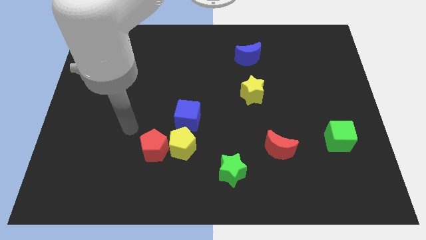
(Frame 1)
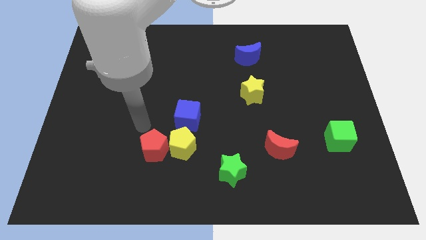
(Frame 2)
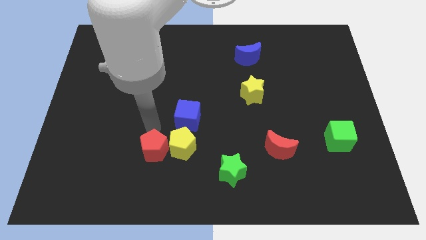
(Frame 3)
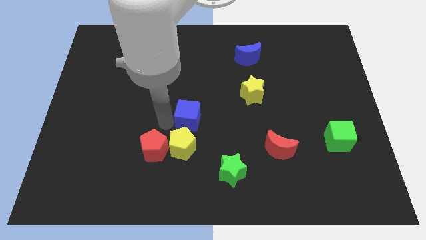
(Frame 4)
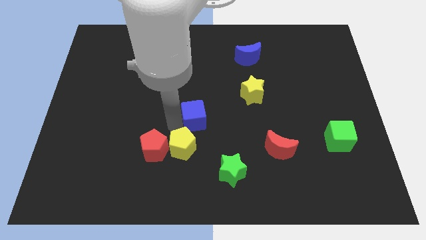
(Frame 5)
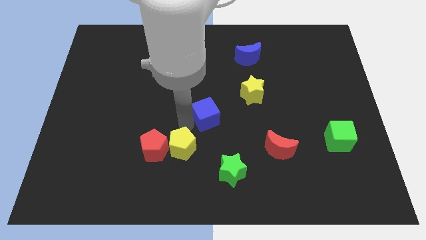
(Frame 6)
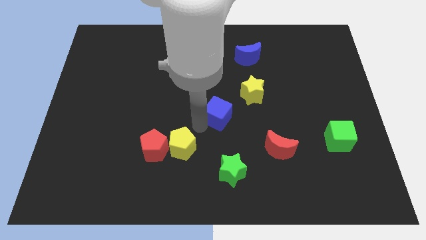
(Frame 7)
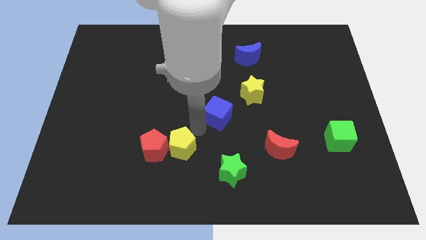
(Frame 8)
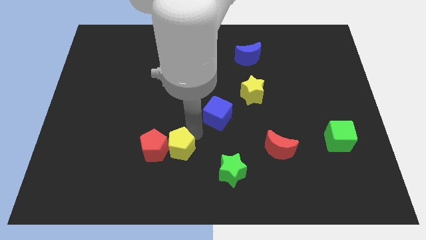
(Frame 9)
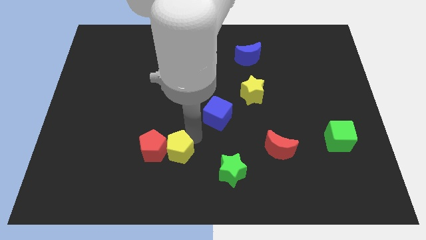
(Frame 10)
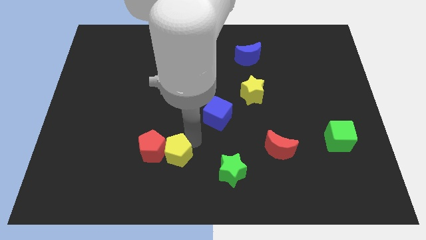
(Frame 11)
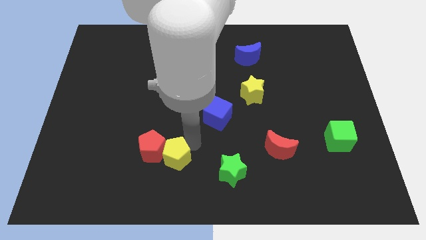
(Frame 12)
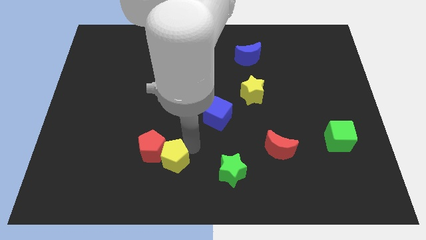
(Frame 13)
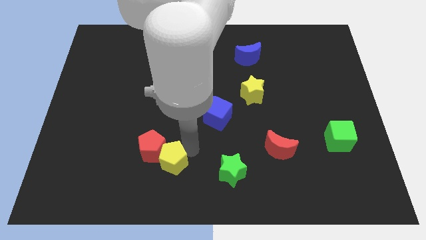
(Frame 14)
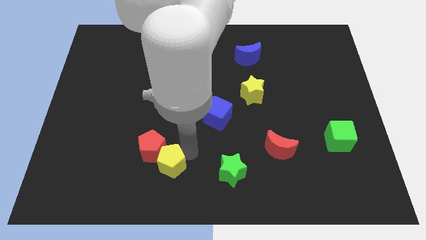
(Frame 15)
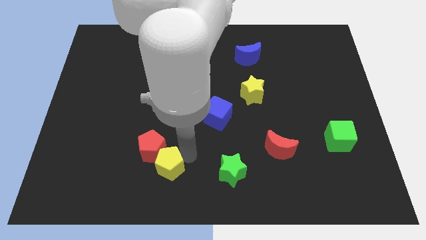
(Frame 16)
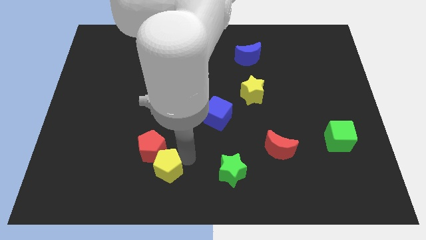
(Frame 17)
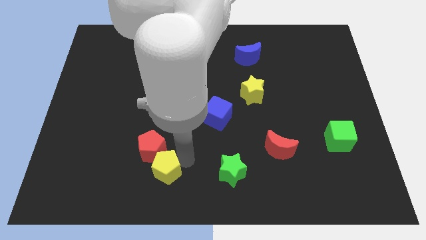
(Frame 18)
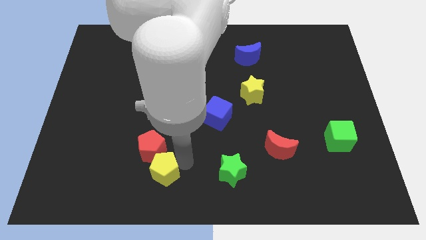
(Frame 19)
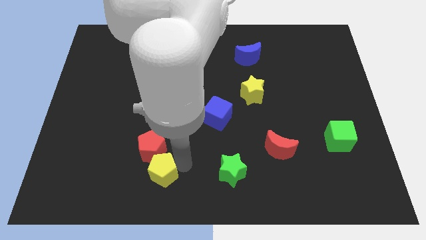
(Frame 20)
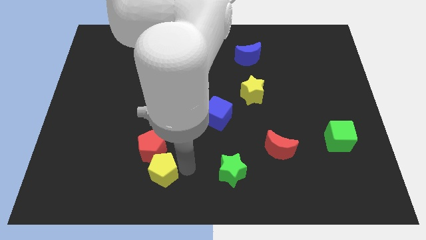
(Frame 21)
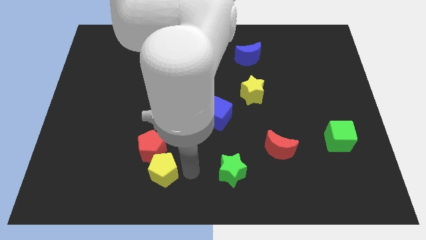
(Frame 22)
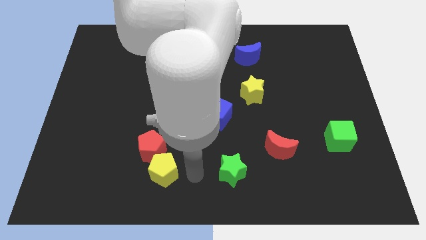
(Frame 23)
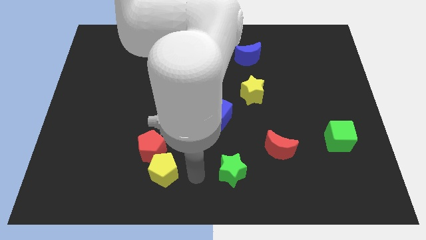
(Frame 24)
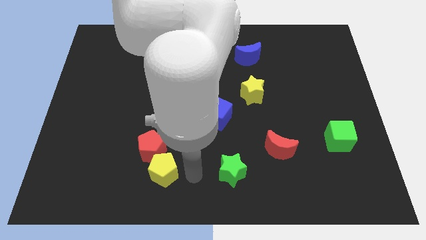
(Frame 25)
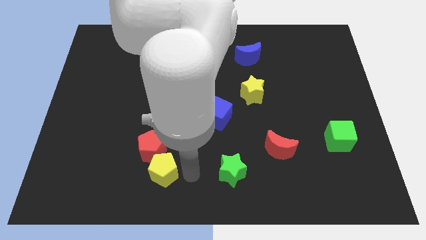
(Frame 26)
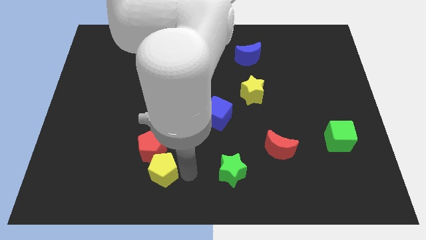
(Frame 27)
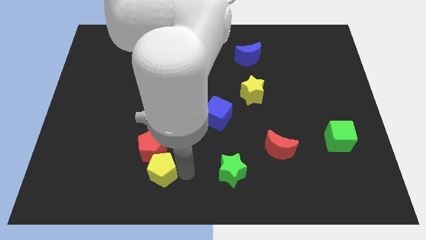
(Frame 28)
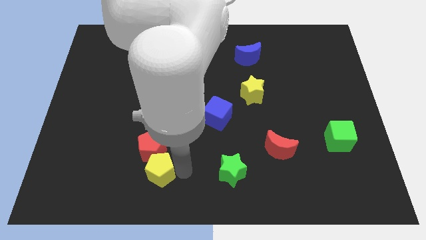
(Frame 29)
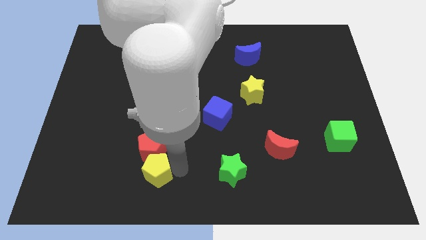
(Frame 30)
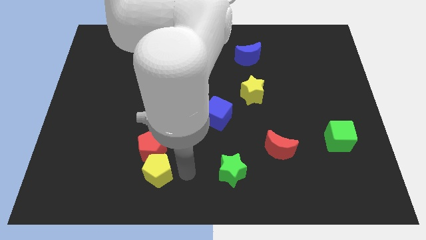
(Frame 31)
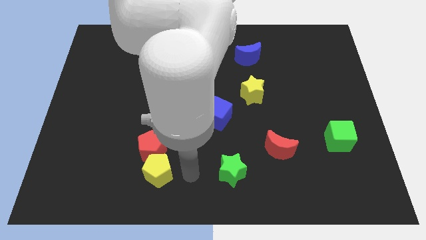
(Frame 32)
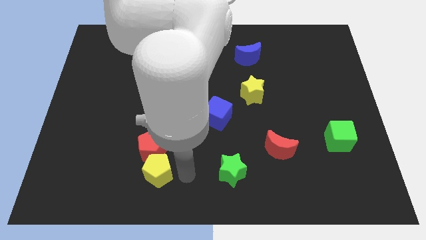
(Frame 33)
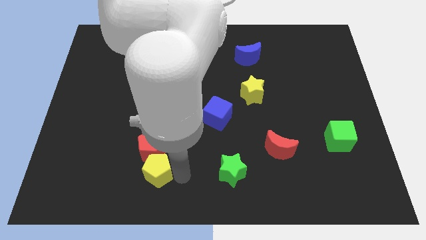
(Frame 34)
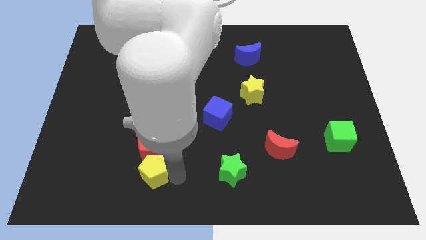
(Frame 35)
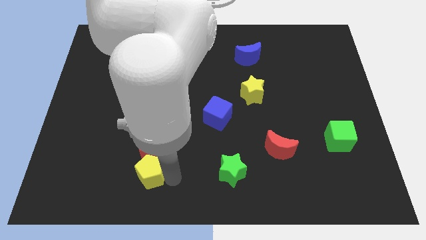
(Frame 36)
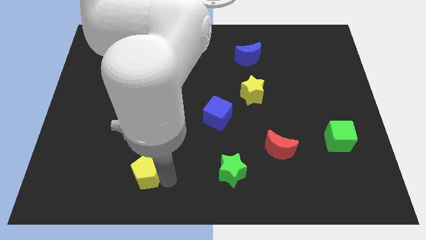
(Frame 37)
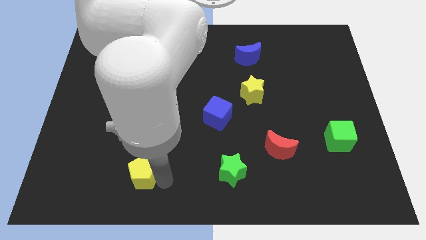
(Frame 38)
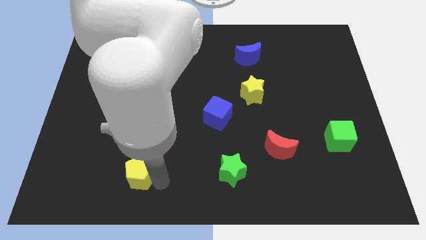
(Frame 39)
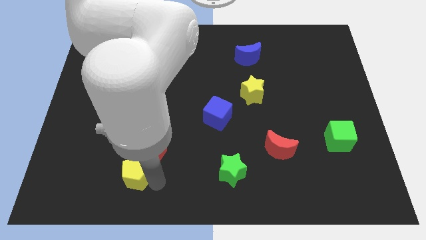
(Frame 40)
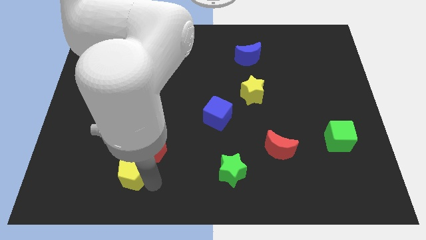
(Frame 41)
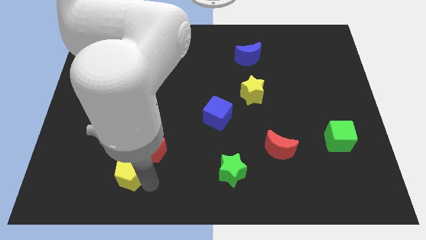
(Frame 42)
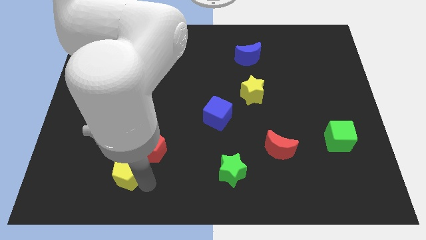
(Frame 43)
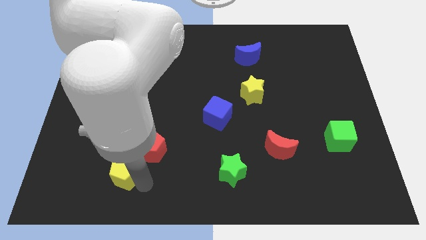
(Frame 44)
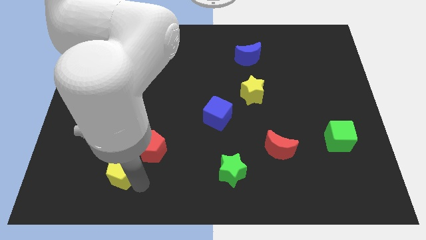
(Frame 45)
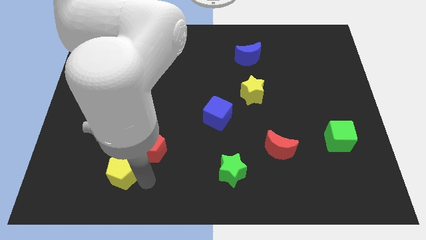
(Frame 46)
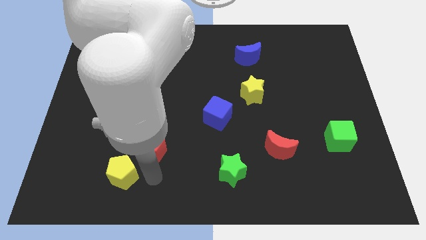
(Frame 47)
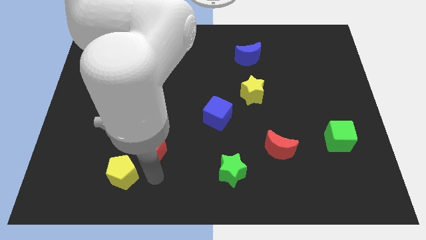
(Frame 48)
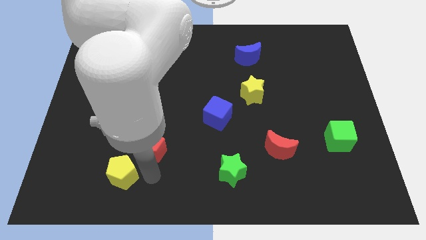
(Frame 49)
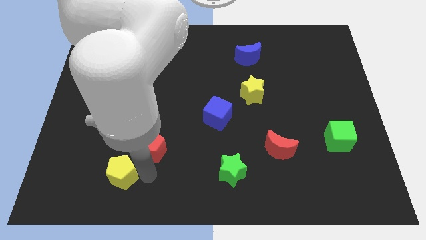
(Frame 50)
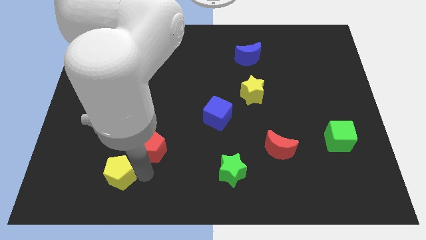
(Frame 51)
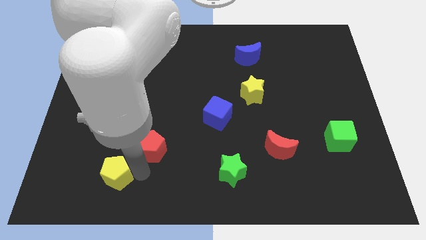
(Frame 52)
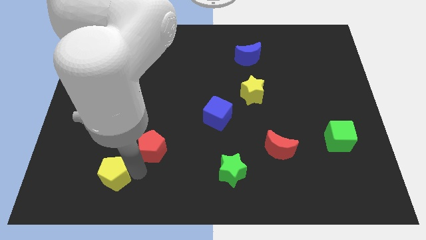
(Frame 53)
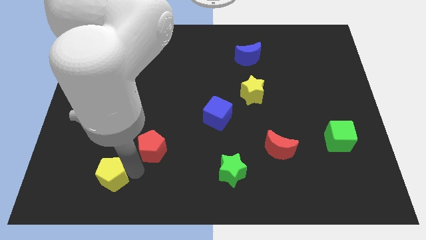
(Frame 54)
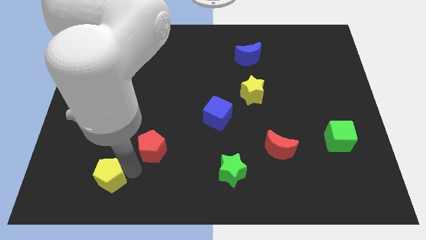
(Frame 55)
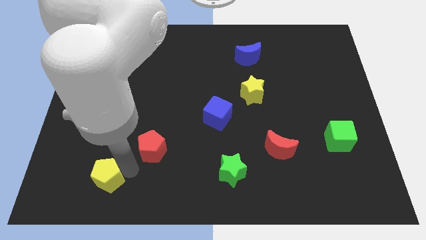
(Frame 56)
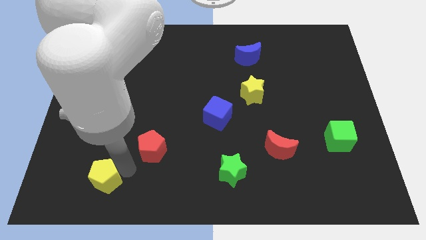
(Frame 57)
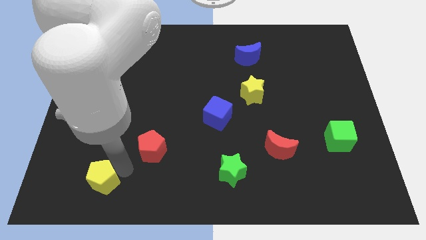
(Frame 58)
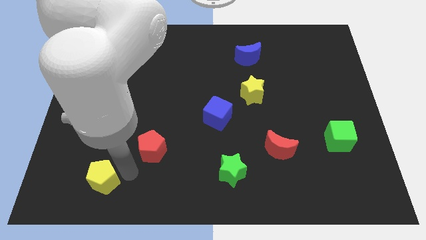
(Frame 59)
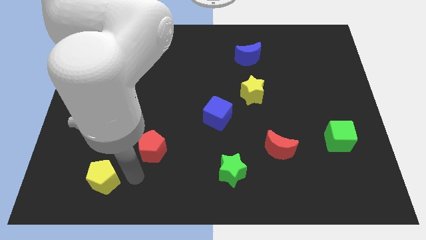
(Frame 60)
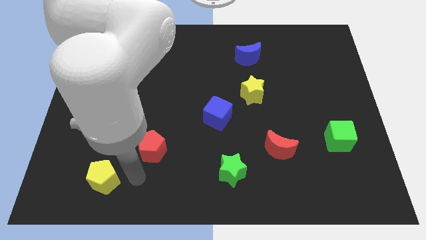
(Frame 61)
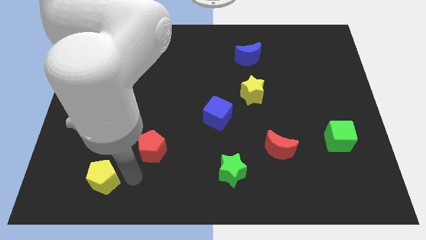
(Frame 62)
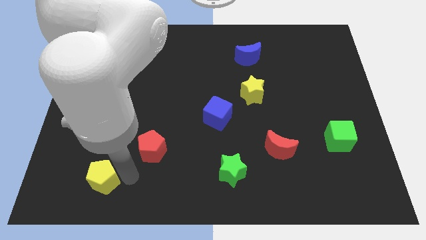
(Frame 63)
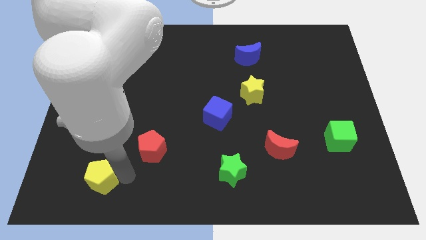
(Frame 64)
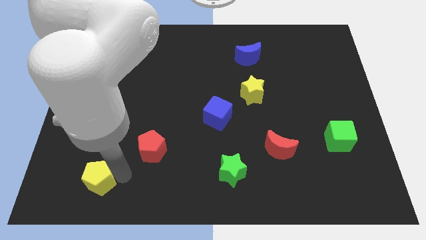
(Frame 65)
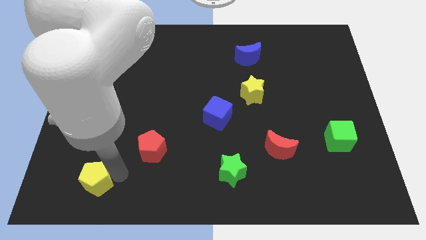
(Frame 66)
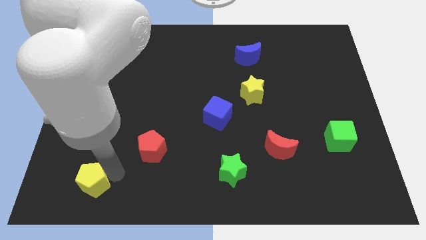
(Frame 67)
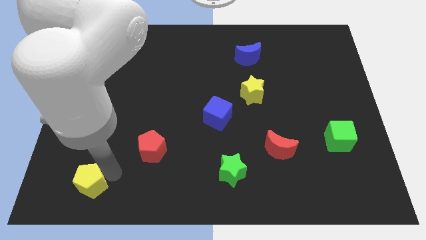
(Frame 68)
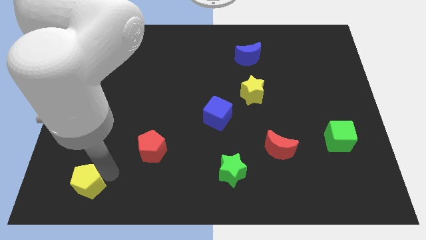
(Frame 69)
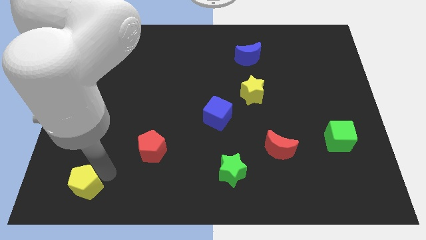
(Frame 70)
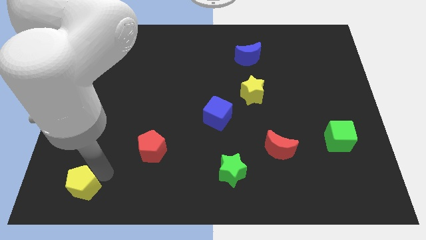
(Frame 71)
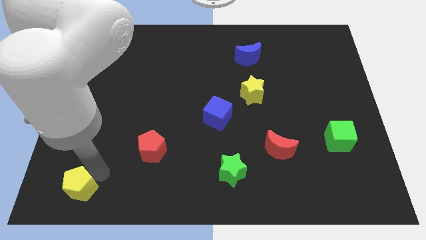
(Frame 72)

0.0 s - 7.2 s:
slide the yellow pentagon to the bottom left
